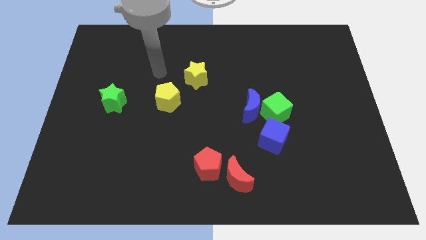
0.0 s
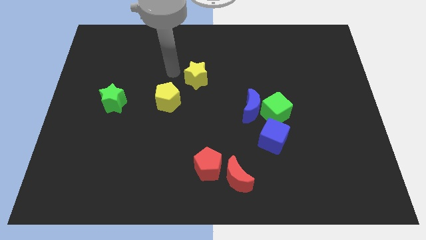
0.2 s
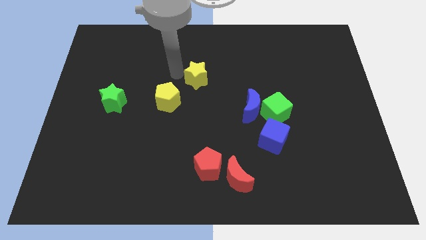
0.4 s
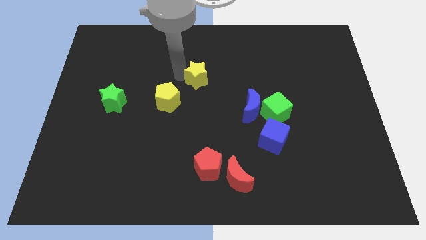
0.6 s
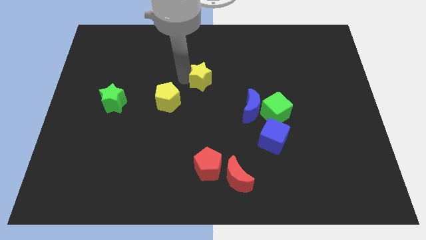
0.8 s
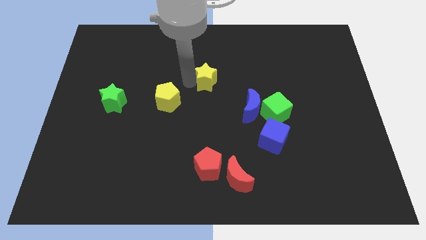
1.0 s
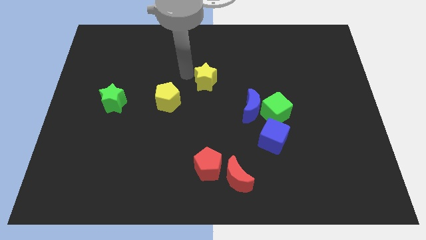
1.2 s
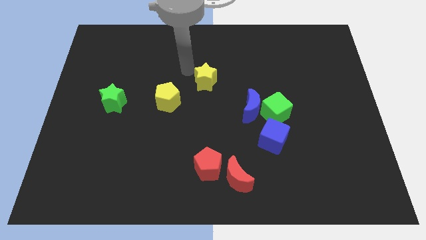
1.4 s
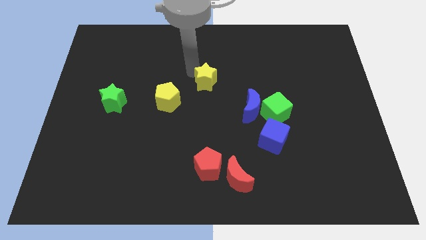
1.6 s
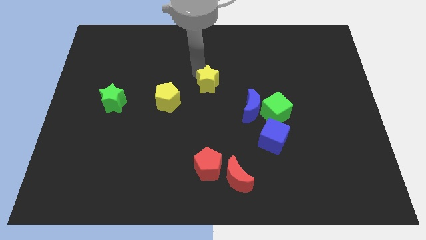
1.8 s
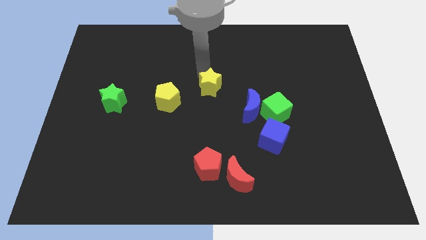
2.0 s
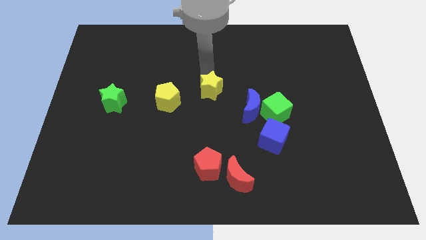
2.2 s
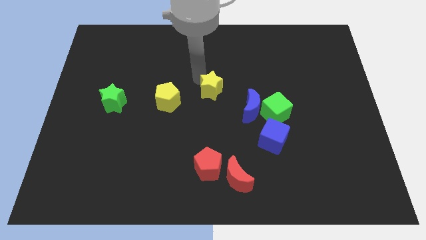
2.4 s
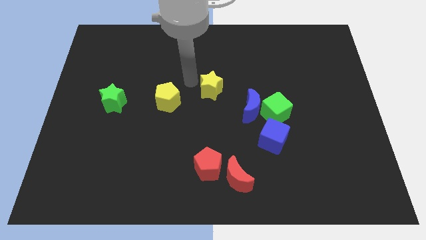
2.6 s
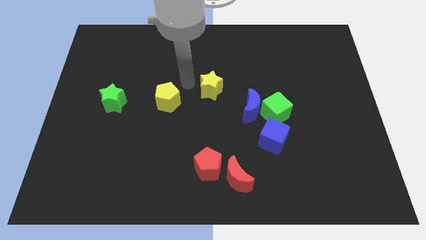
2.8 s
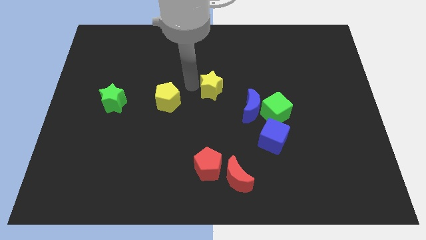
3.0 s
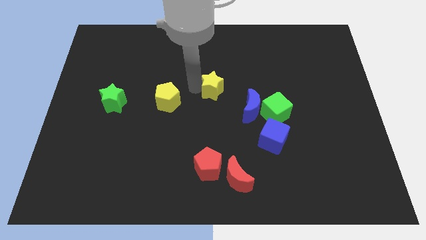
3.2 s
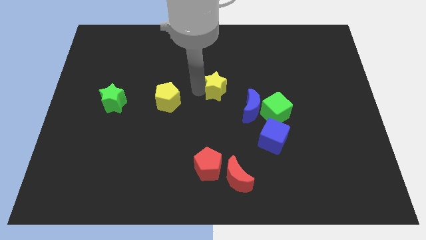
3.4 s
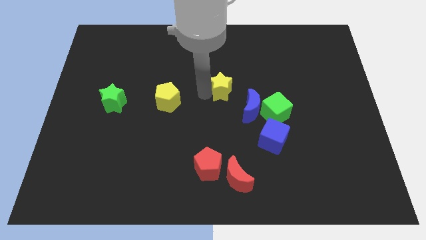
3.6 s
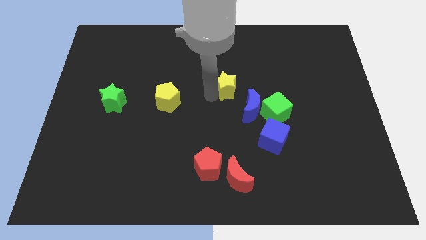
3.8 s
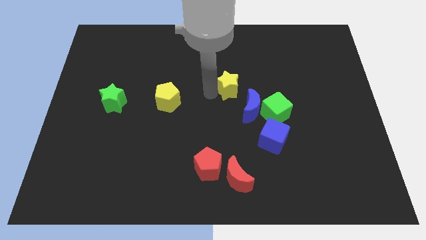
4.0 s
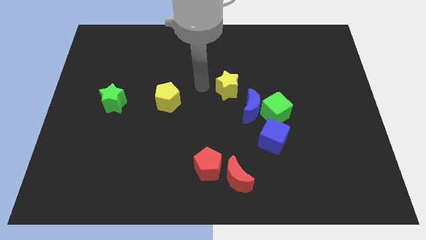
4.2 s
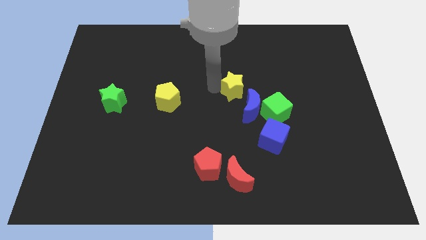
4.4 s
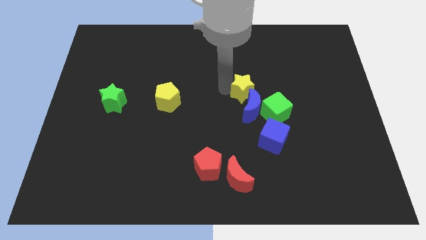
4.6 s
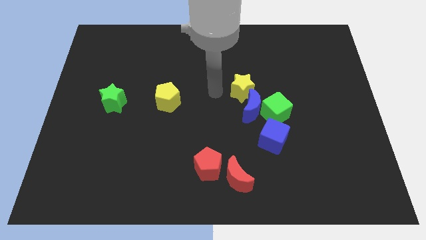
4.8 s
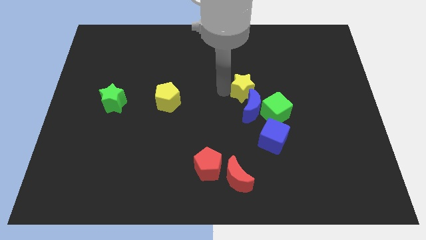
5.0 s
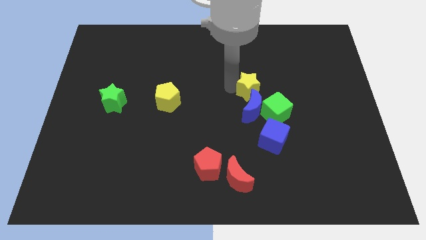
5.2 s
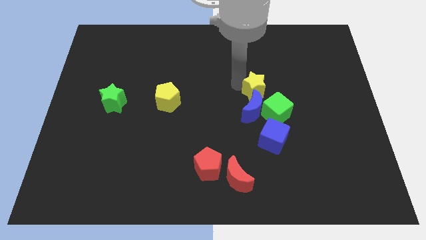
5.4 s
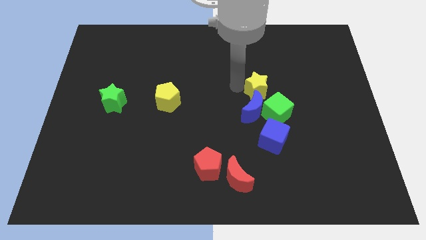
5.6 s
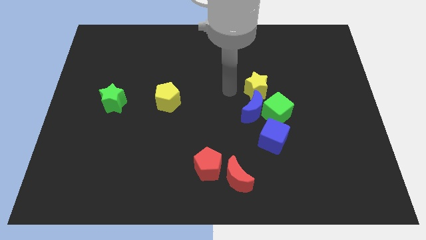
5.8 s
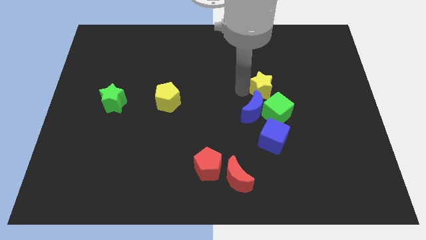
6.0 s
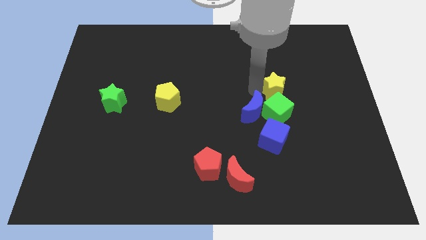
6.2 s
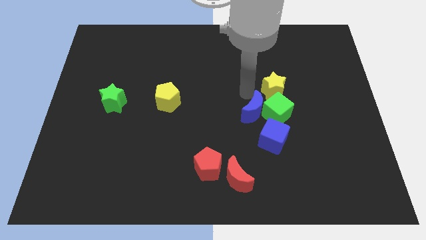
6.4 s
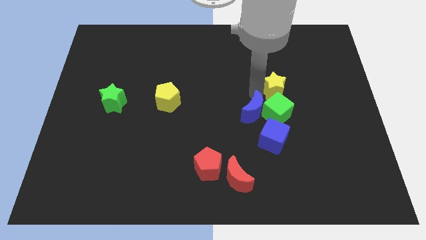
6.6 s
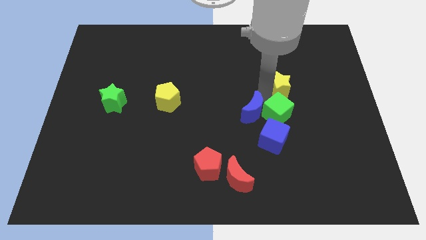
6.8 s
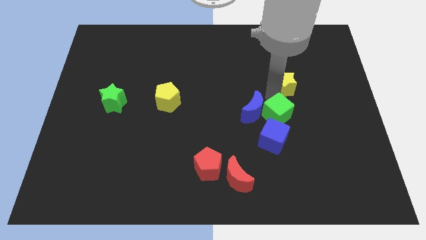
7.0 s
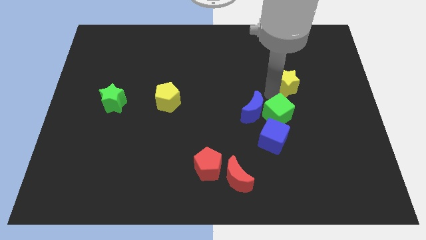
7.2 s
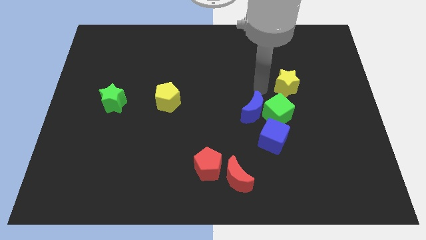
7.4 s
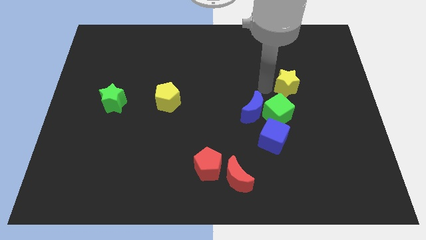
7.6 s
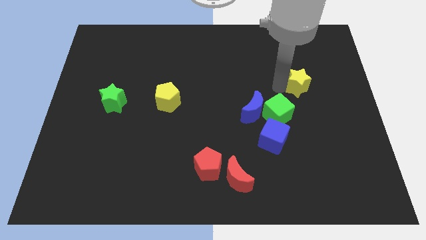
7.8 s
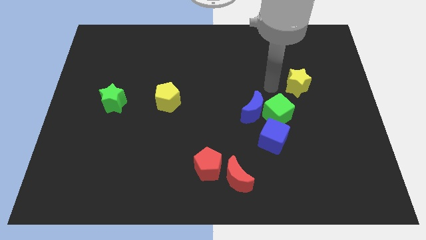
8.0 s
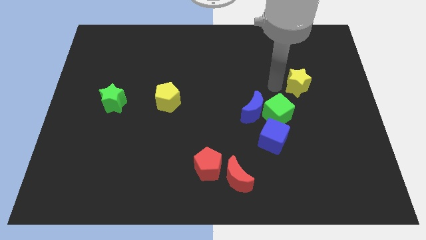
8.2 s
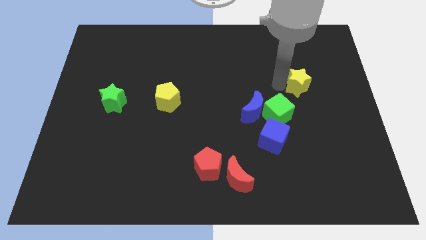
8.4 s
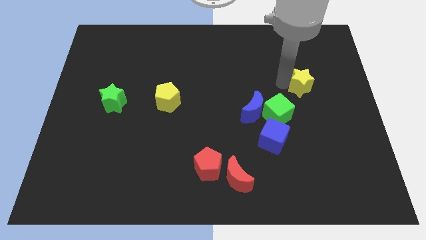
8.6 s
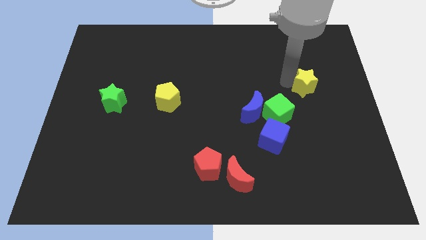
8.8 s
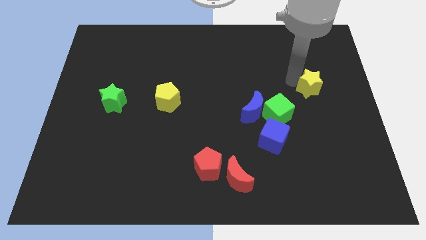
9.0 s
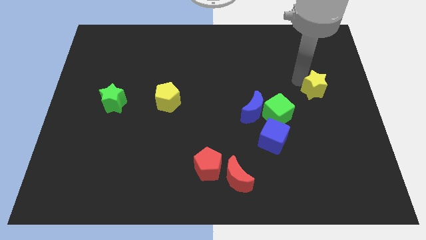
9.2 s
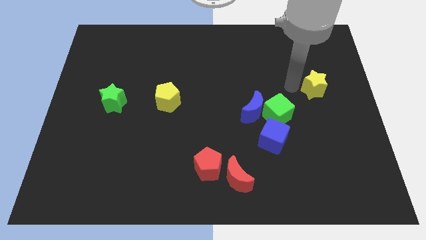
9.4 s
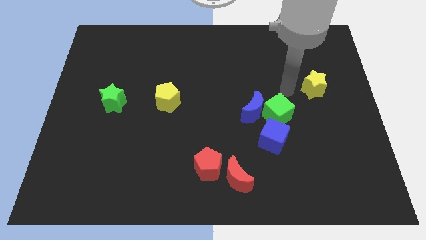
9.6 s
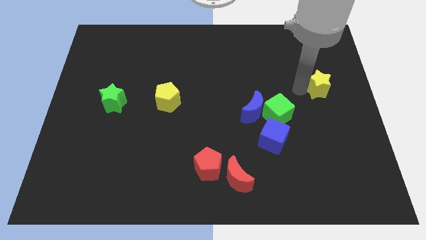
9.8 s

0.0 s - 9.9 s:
slide the yellow star to the right side

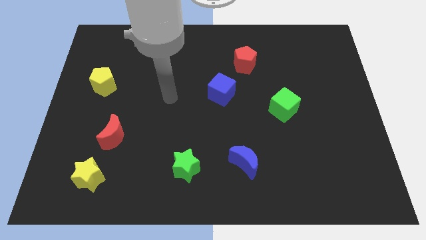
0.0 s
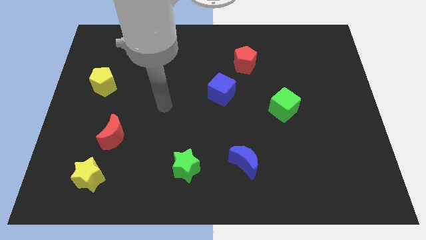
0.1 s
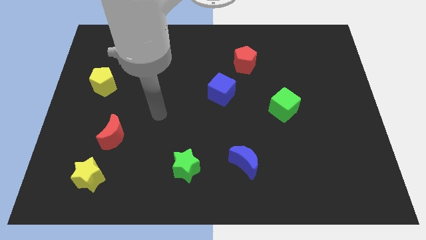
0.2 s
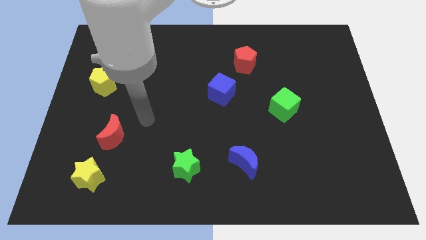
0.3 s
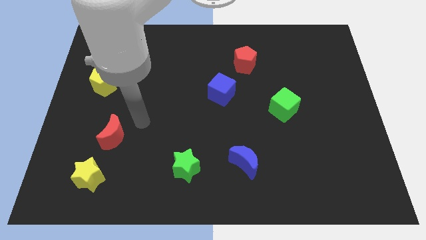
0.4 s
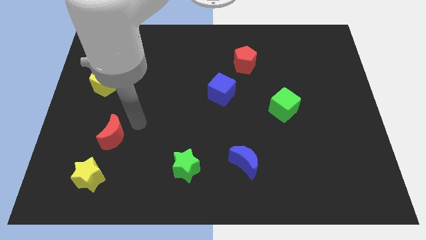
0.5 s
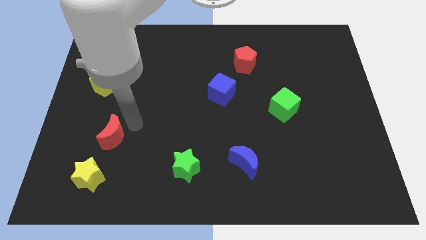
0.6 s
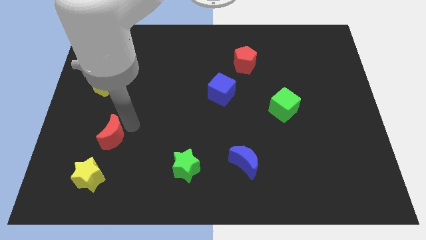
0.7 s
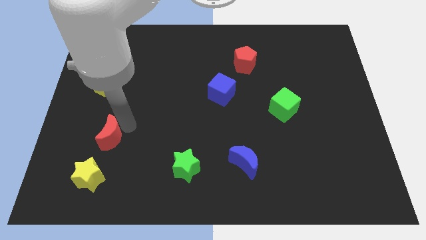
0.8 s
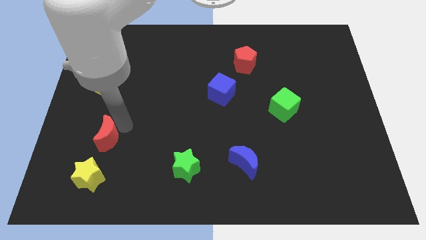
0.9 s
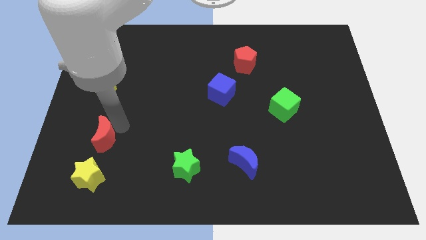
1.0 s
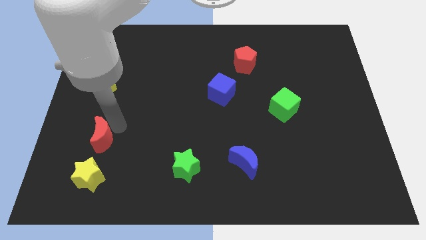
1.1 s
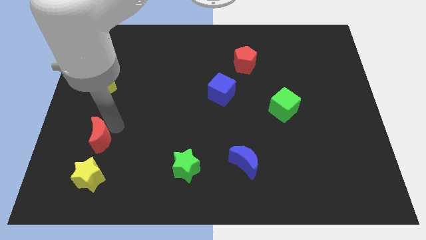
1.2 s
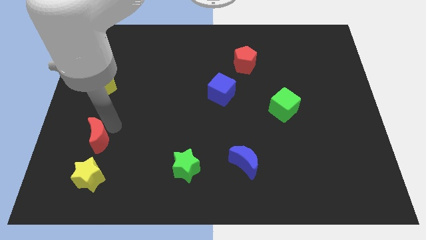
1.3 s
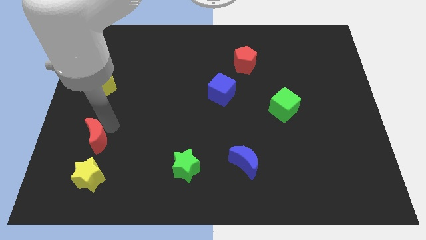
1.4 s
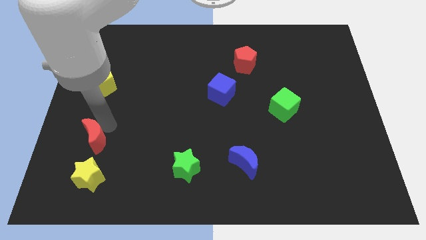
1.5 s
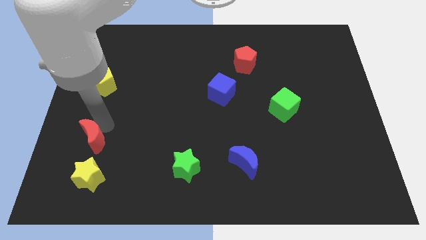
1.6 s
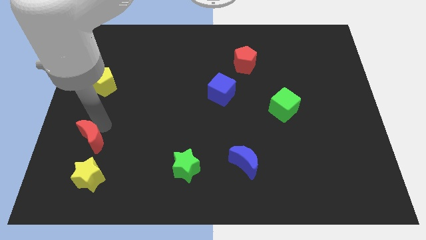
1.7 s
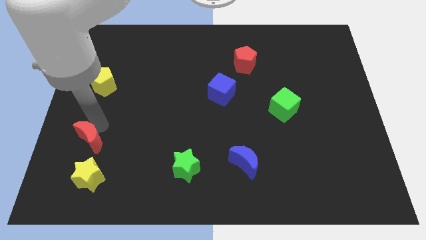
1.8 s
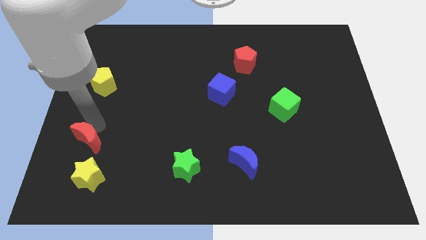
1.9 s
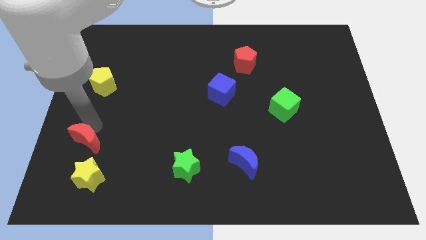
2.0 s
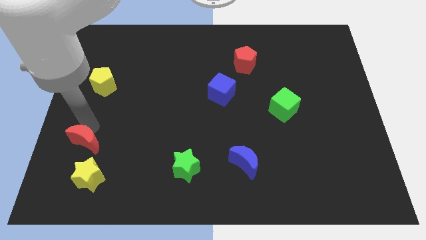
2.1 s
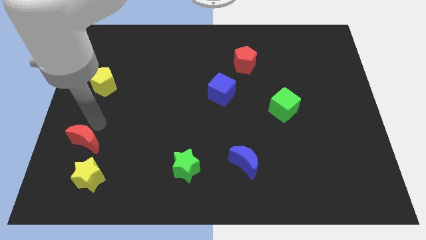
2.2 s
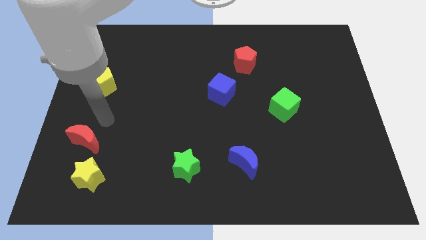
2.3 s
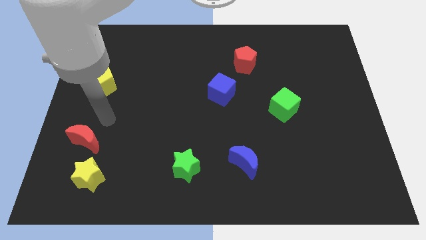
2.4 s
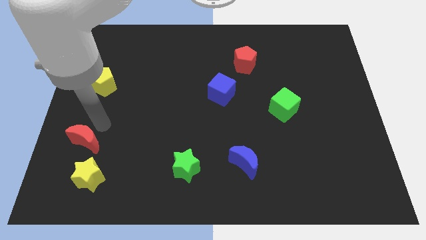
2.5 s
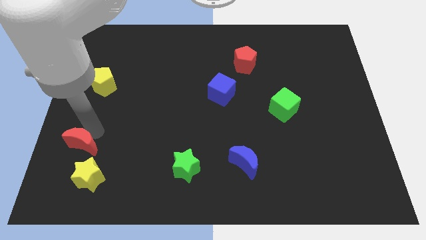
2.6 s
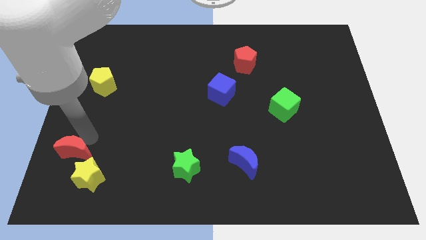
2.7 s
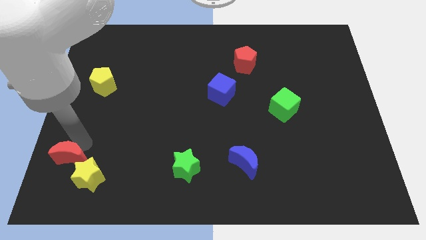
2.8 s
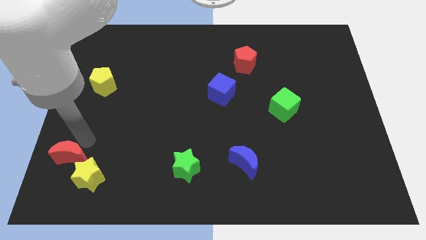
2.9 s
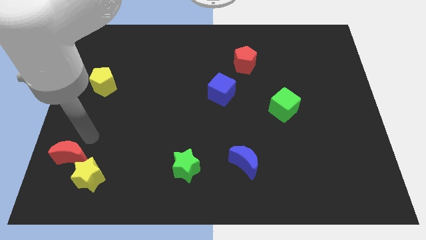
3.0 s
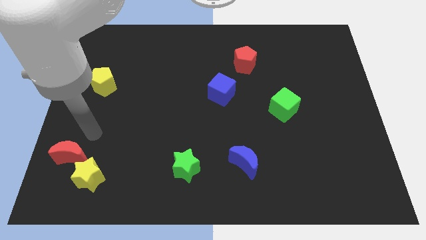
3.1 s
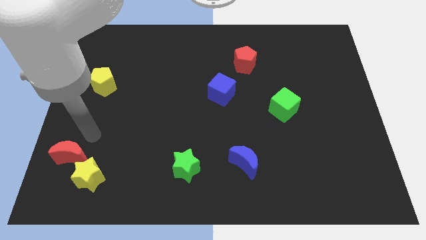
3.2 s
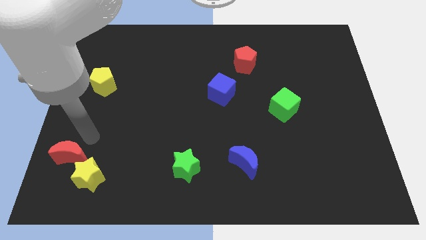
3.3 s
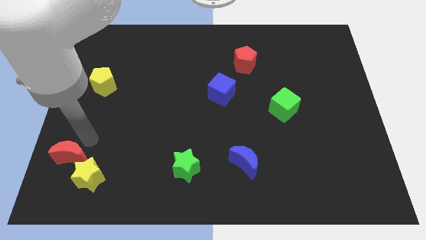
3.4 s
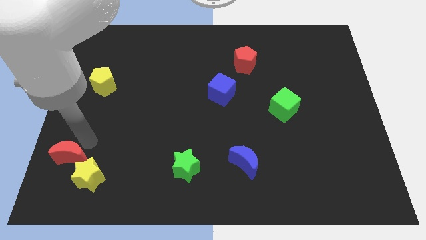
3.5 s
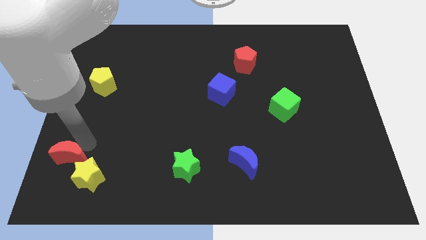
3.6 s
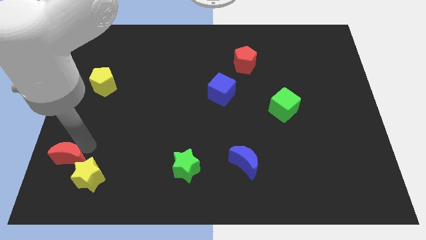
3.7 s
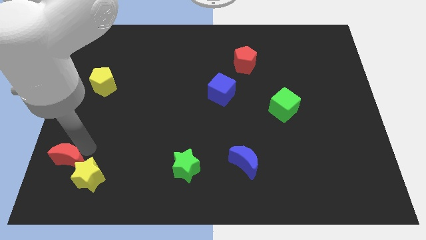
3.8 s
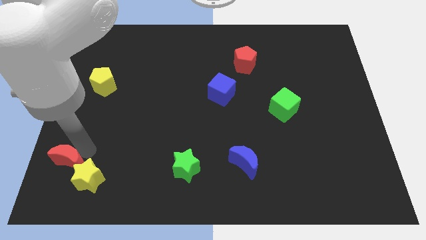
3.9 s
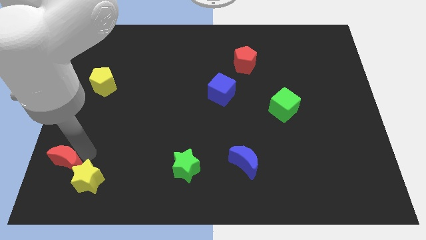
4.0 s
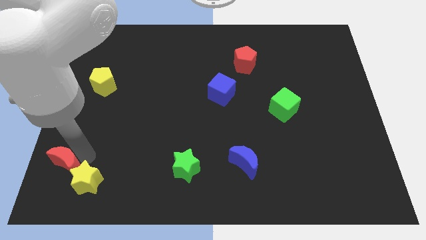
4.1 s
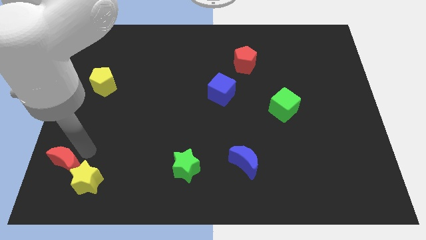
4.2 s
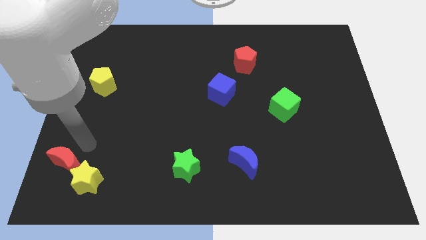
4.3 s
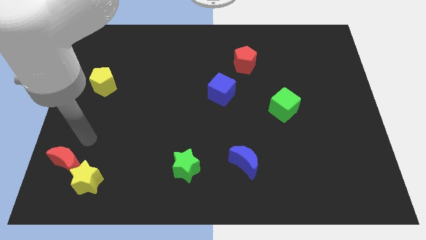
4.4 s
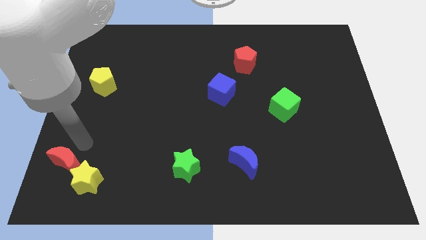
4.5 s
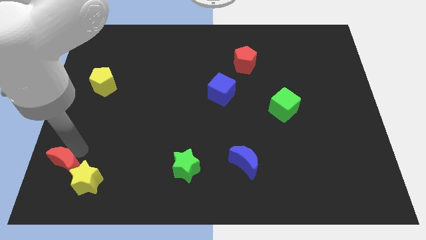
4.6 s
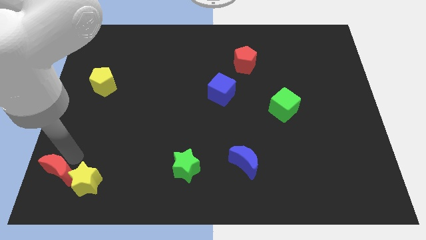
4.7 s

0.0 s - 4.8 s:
put the red moon to the bottom left
